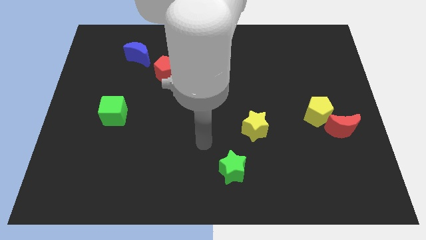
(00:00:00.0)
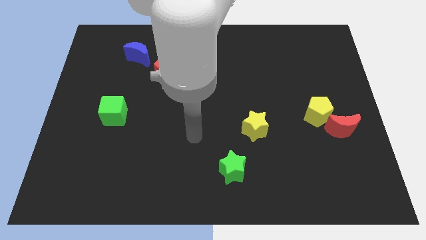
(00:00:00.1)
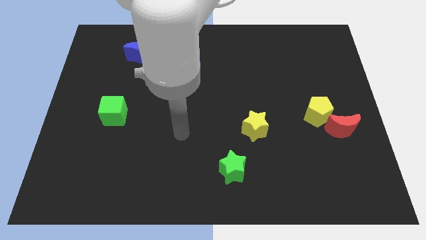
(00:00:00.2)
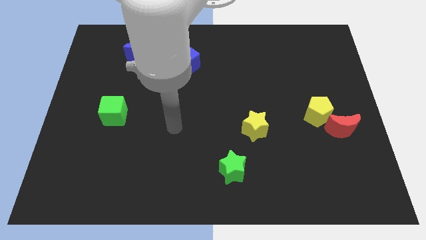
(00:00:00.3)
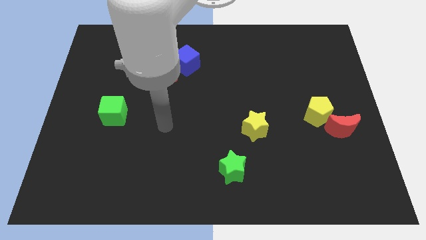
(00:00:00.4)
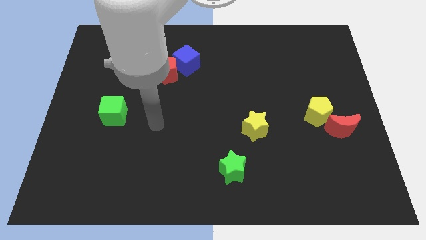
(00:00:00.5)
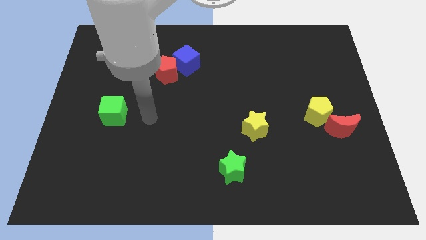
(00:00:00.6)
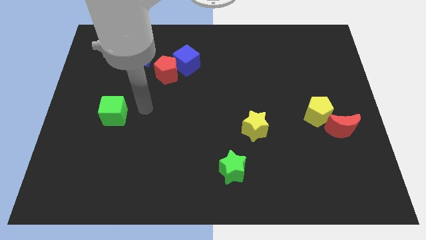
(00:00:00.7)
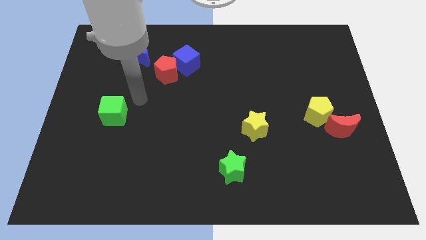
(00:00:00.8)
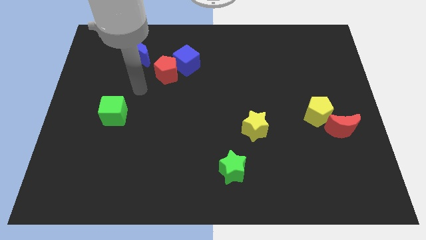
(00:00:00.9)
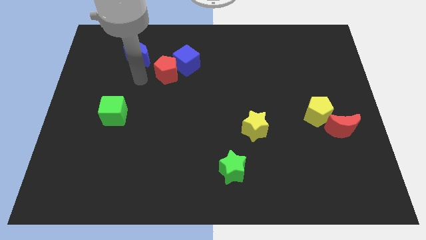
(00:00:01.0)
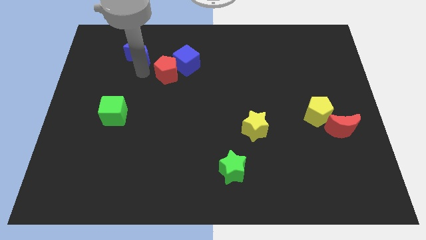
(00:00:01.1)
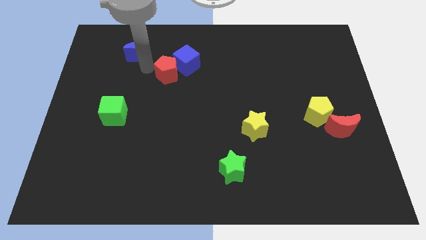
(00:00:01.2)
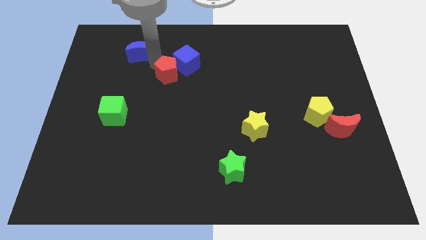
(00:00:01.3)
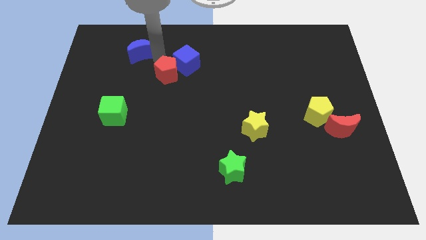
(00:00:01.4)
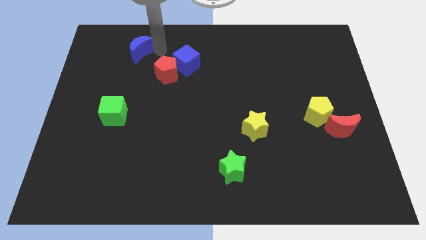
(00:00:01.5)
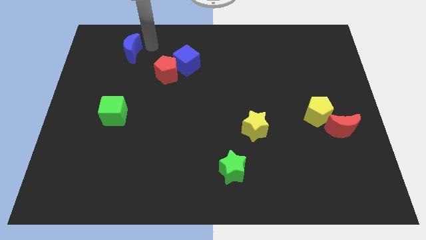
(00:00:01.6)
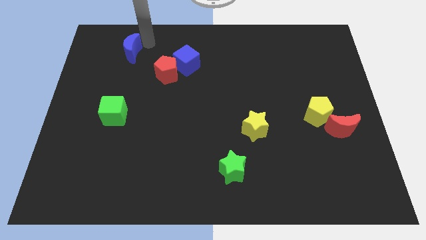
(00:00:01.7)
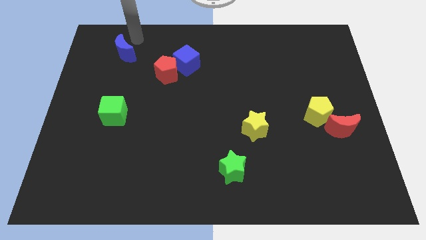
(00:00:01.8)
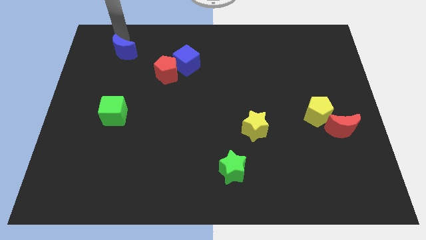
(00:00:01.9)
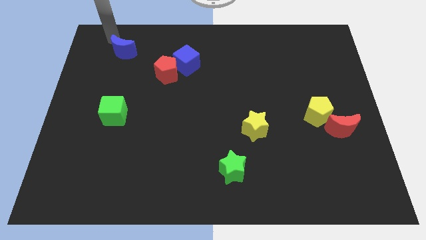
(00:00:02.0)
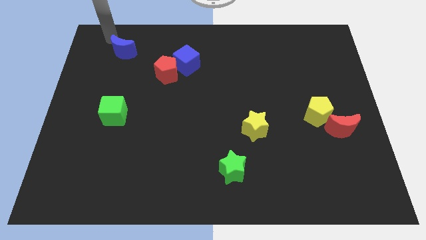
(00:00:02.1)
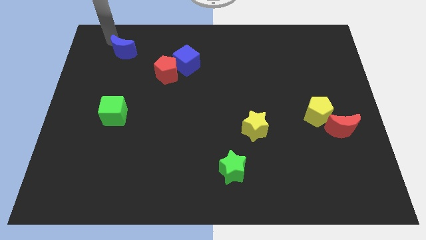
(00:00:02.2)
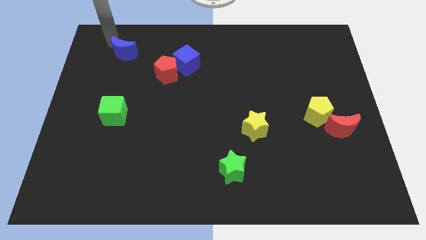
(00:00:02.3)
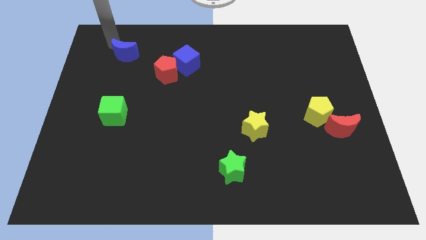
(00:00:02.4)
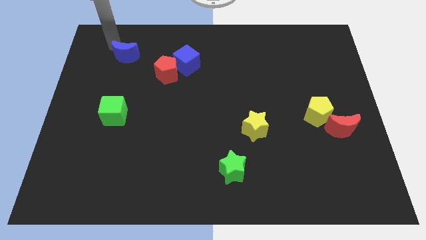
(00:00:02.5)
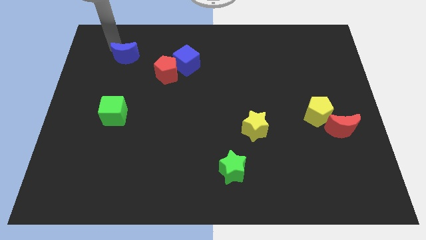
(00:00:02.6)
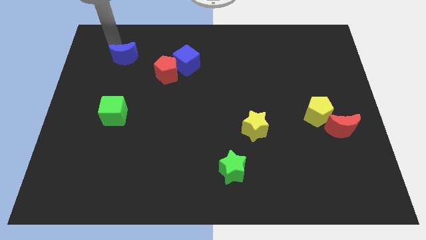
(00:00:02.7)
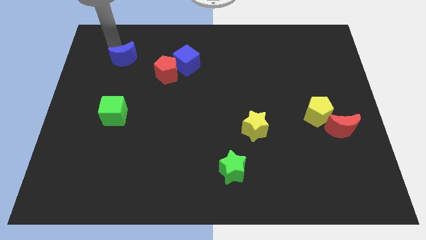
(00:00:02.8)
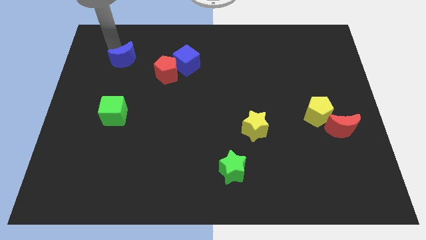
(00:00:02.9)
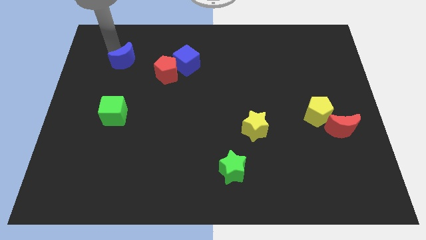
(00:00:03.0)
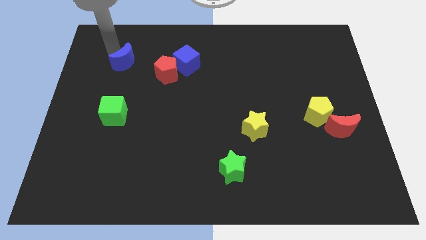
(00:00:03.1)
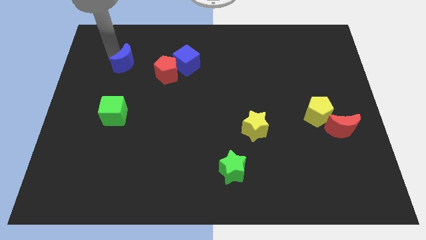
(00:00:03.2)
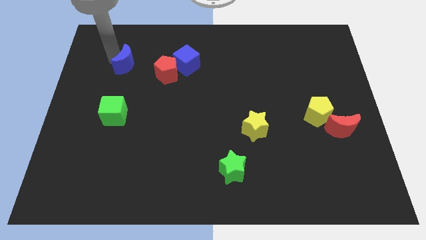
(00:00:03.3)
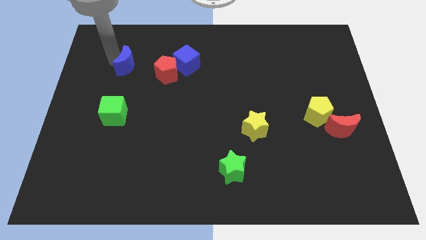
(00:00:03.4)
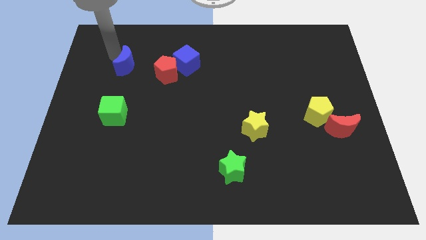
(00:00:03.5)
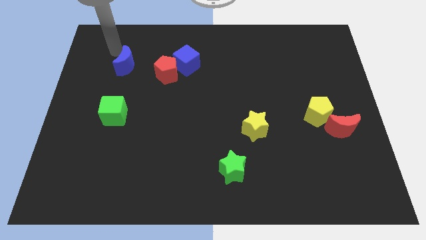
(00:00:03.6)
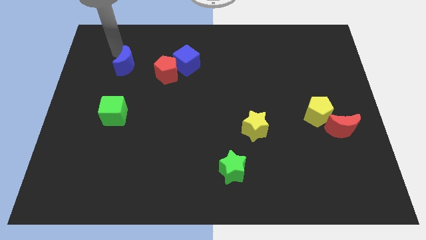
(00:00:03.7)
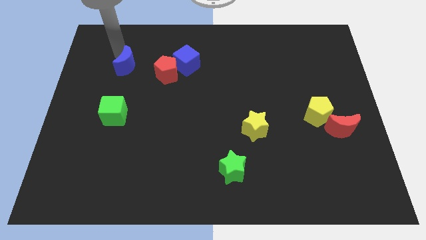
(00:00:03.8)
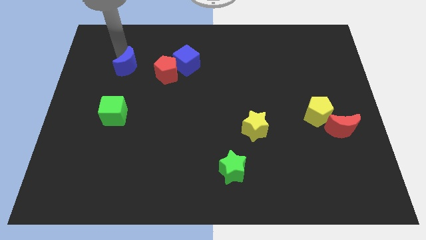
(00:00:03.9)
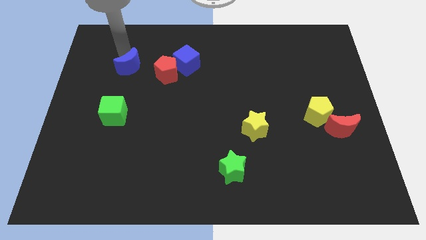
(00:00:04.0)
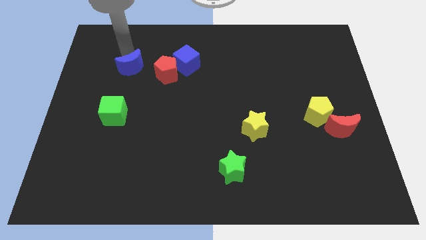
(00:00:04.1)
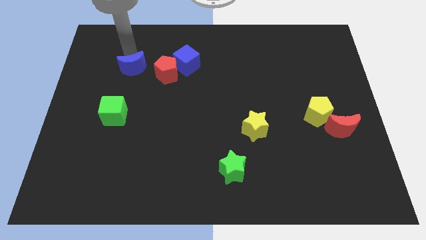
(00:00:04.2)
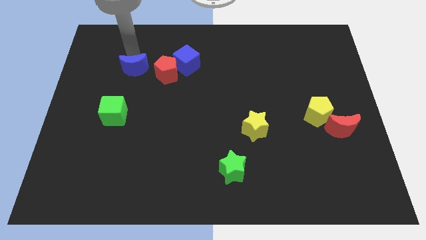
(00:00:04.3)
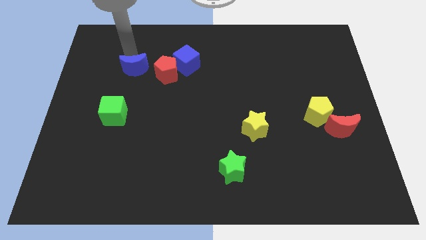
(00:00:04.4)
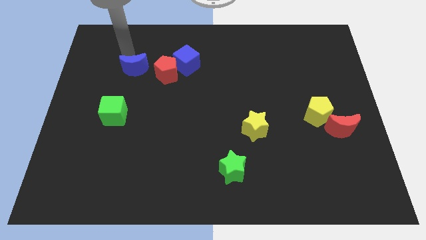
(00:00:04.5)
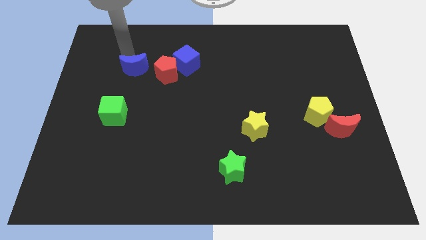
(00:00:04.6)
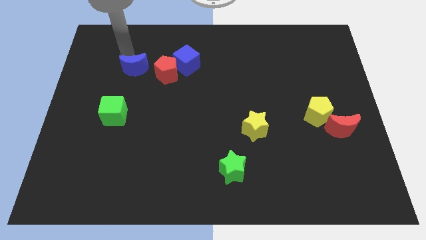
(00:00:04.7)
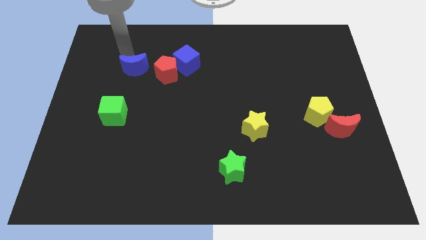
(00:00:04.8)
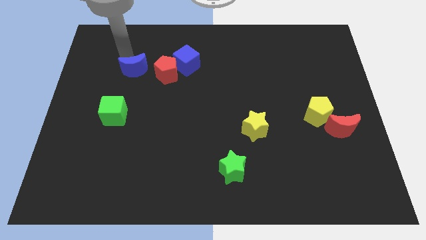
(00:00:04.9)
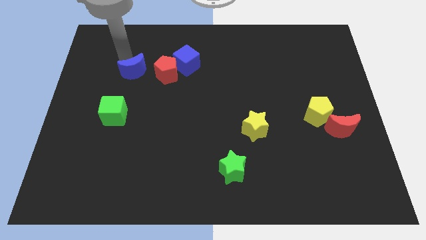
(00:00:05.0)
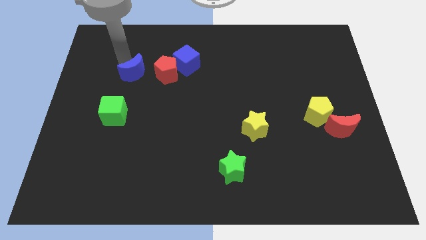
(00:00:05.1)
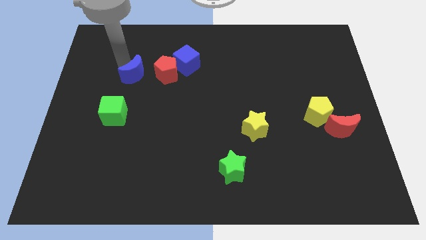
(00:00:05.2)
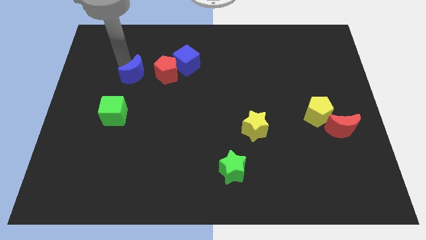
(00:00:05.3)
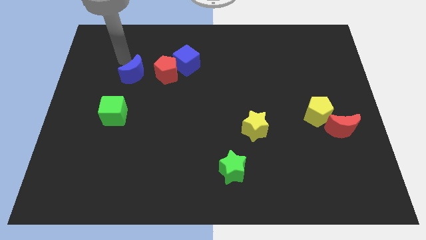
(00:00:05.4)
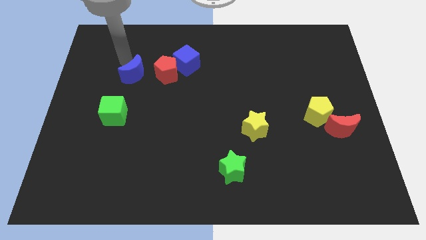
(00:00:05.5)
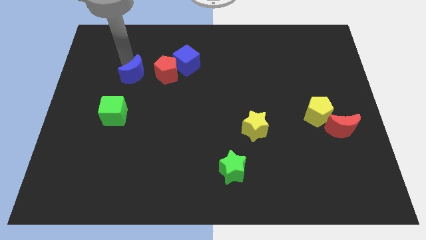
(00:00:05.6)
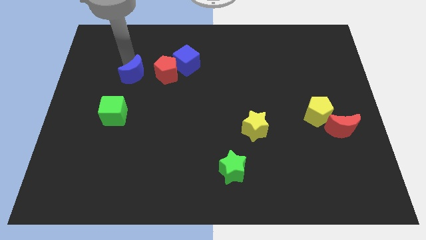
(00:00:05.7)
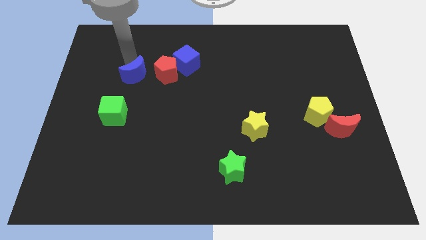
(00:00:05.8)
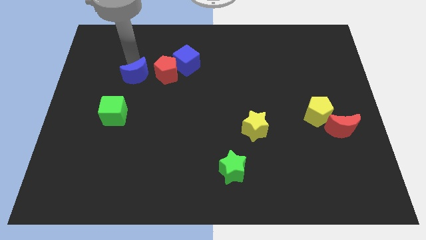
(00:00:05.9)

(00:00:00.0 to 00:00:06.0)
move the blue moon diagonally down and to the left of the red pentagon

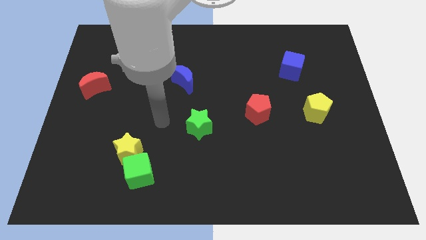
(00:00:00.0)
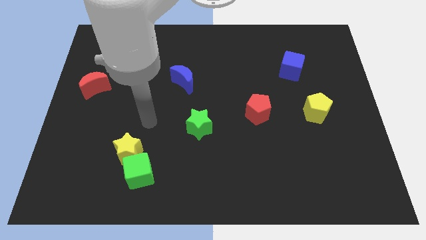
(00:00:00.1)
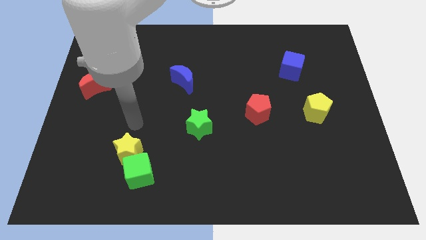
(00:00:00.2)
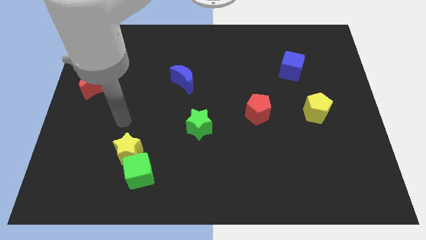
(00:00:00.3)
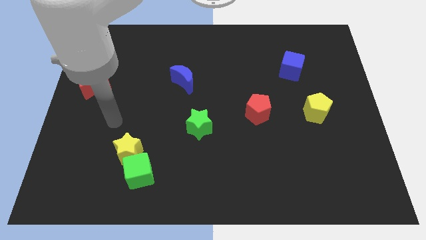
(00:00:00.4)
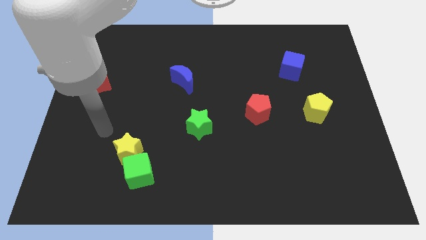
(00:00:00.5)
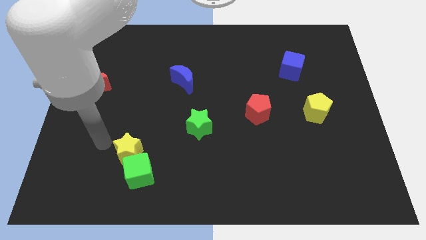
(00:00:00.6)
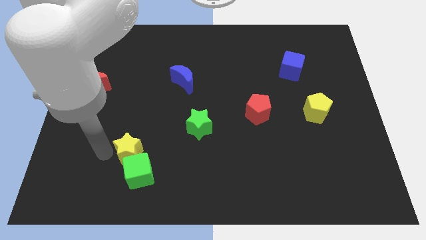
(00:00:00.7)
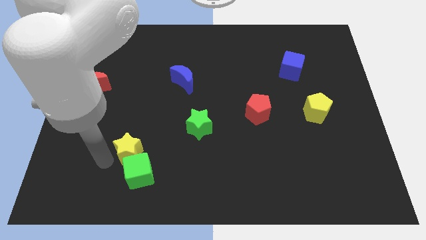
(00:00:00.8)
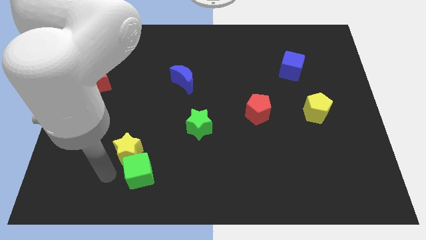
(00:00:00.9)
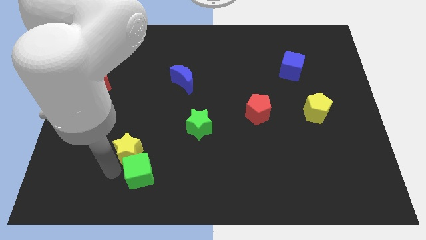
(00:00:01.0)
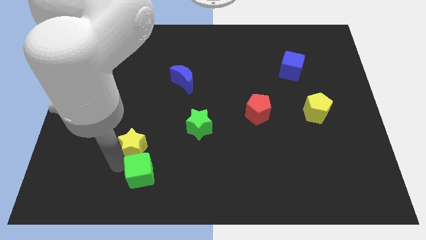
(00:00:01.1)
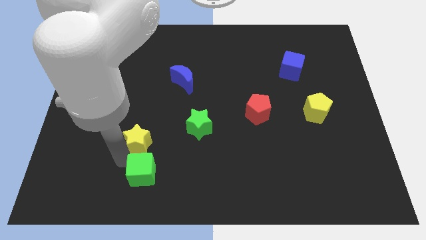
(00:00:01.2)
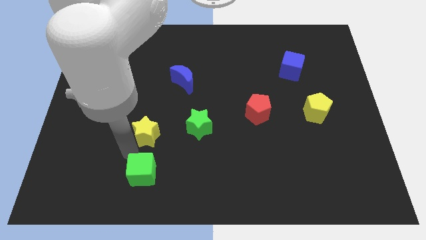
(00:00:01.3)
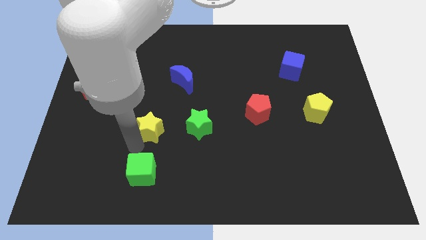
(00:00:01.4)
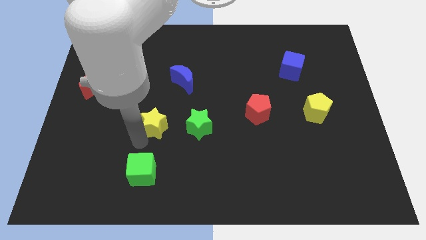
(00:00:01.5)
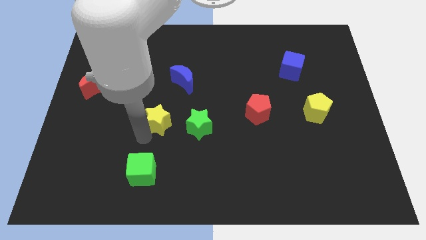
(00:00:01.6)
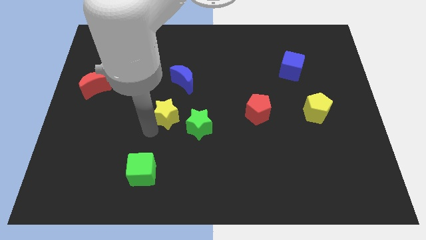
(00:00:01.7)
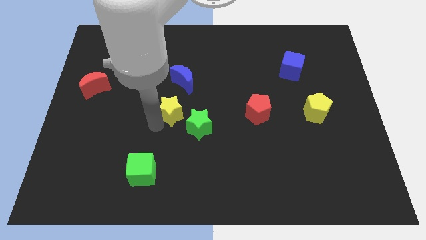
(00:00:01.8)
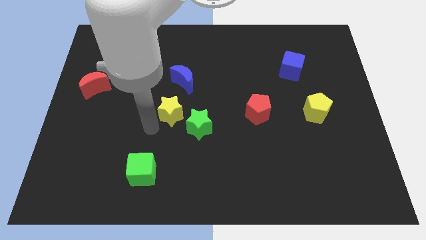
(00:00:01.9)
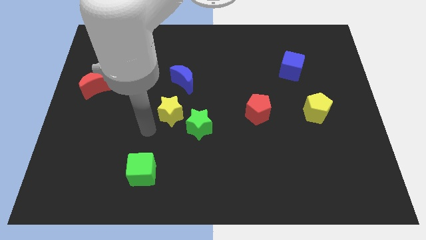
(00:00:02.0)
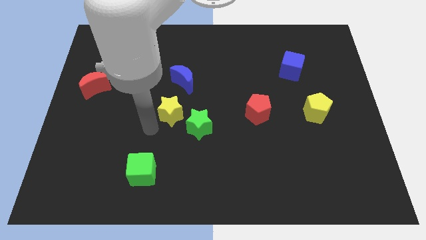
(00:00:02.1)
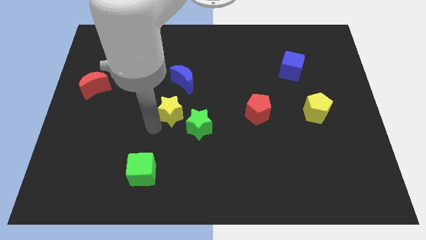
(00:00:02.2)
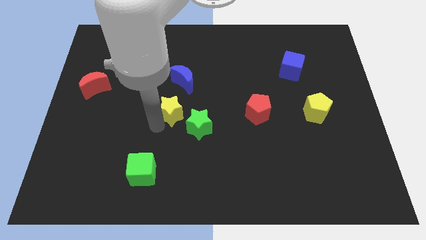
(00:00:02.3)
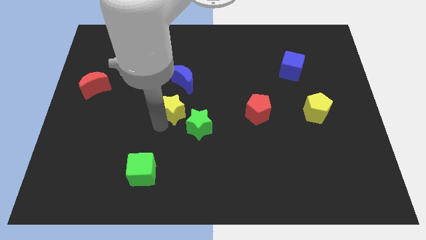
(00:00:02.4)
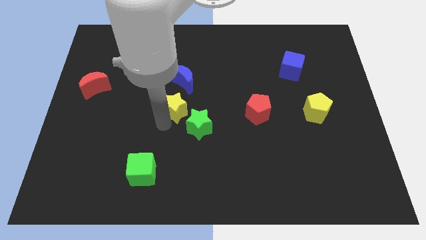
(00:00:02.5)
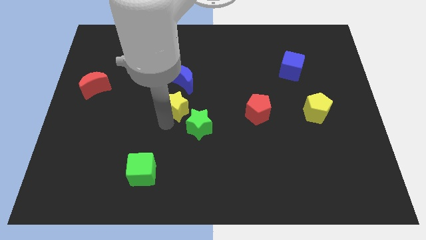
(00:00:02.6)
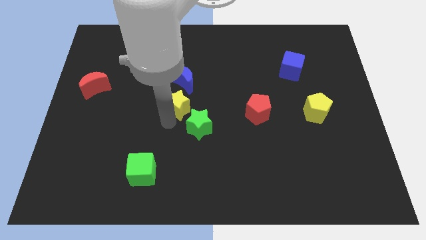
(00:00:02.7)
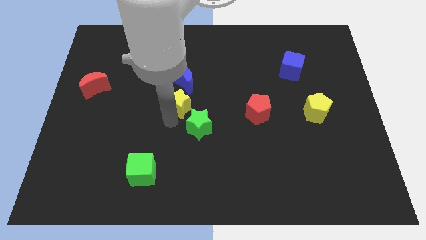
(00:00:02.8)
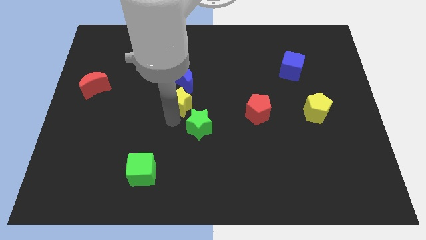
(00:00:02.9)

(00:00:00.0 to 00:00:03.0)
push the yellow star to the top side of the green star
